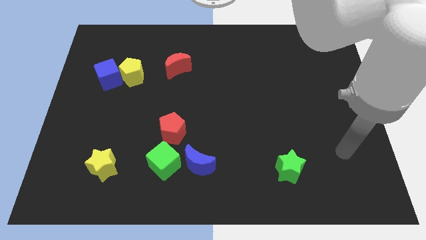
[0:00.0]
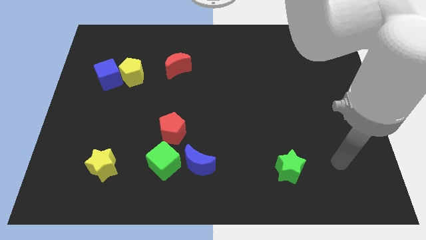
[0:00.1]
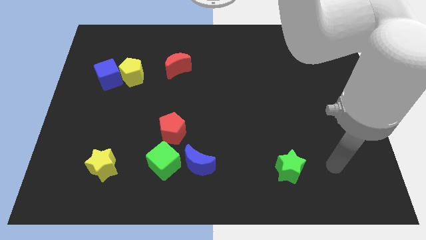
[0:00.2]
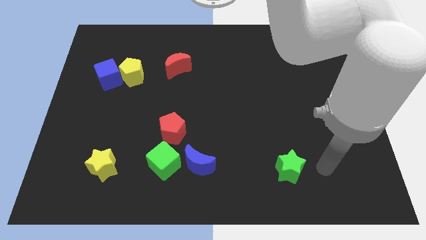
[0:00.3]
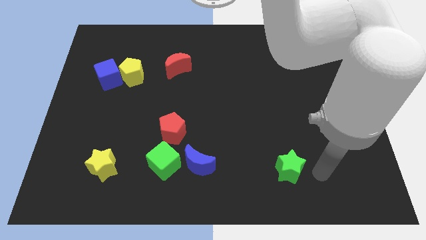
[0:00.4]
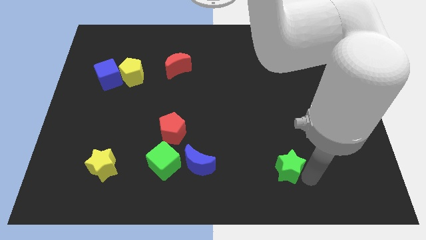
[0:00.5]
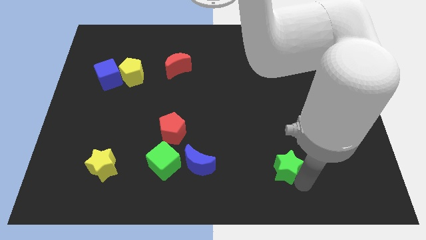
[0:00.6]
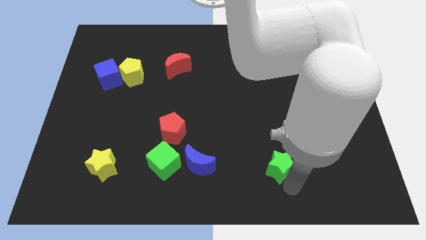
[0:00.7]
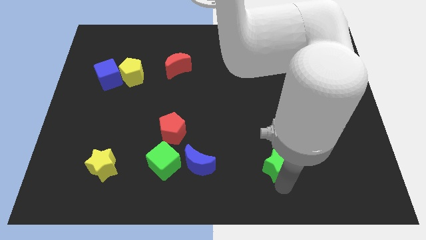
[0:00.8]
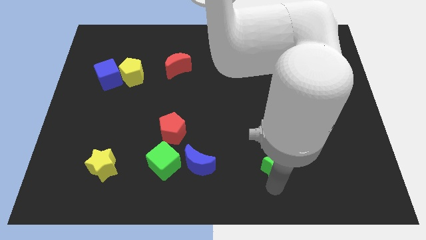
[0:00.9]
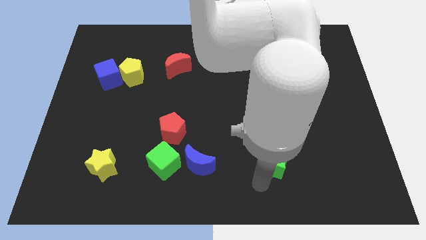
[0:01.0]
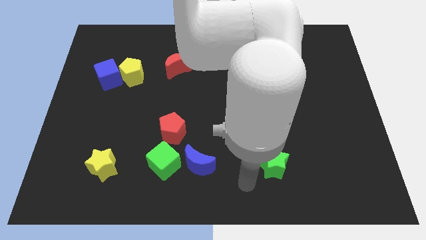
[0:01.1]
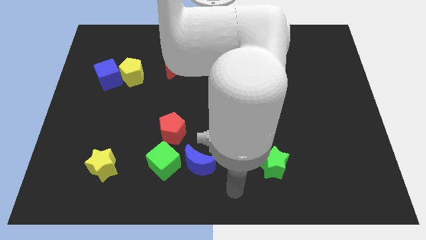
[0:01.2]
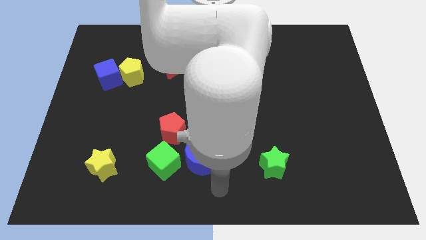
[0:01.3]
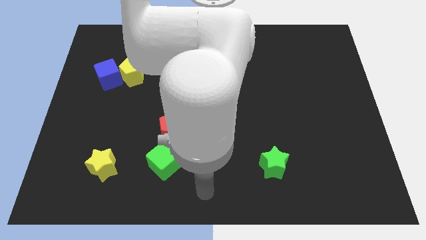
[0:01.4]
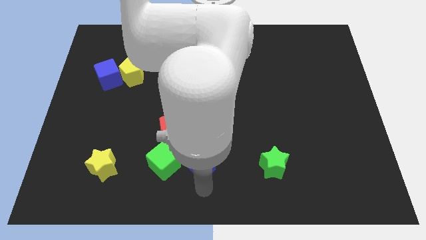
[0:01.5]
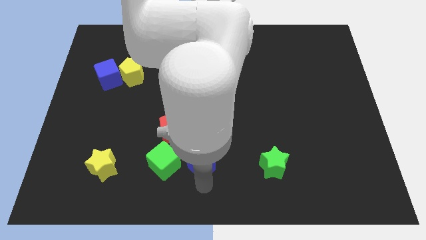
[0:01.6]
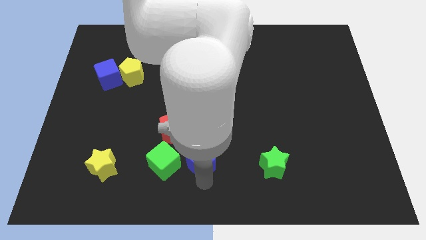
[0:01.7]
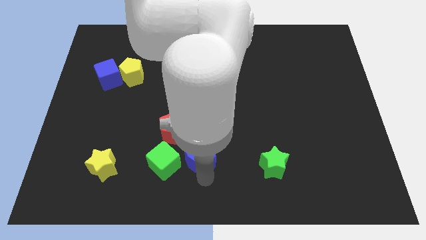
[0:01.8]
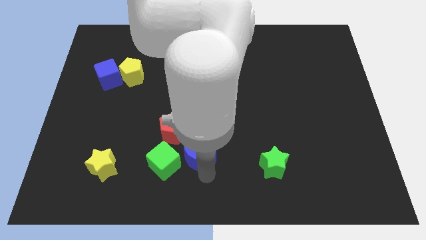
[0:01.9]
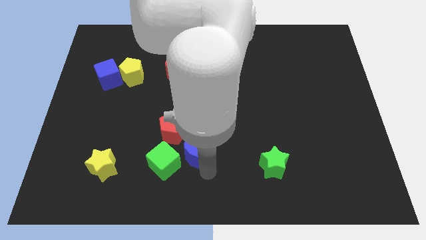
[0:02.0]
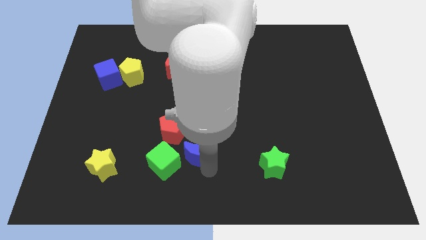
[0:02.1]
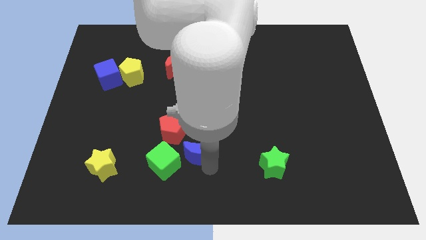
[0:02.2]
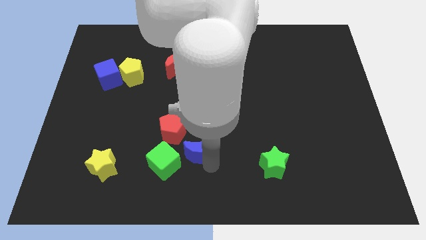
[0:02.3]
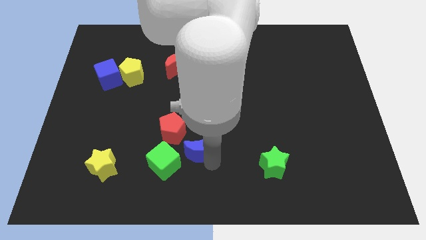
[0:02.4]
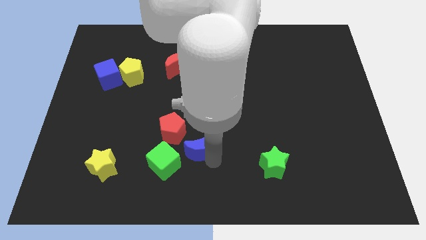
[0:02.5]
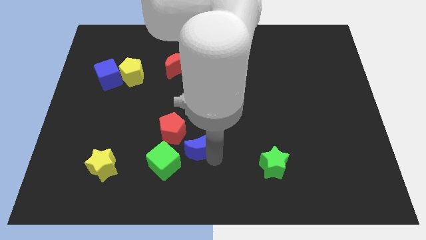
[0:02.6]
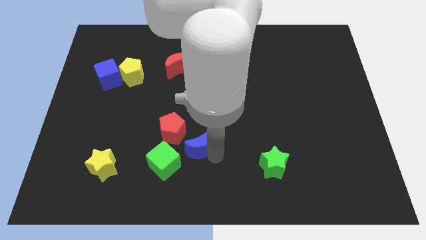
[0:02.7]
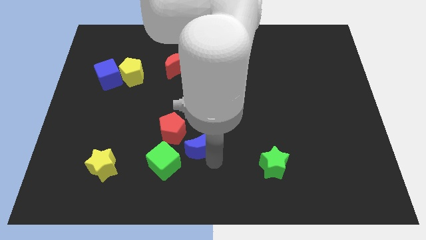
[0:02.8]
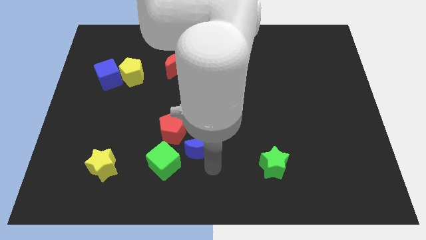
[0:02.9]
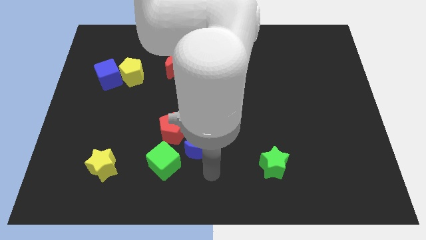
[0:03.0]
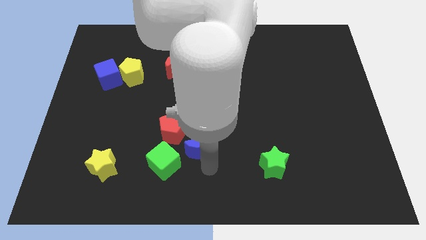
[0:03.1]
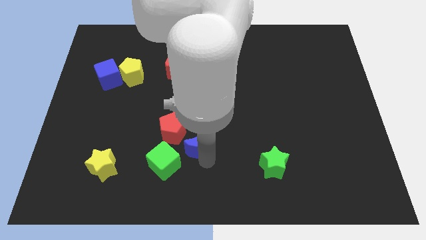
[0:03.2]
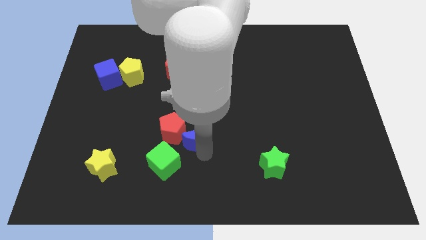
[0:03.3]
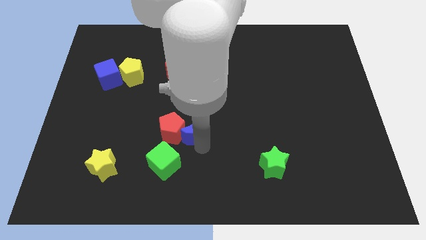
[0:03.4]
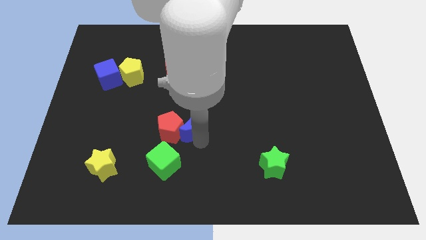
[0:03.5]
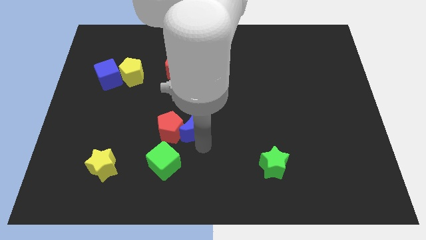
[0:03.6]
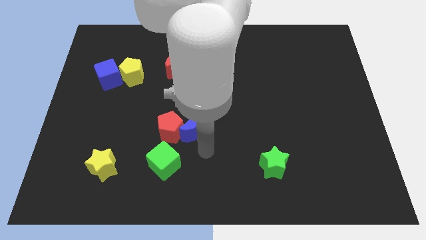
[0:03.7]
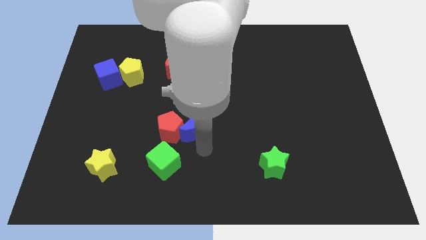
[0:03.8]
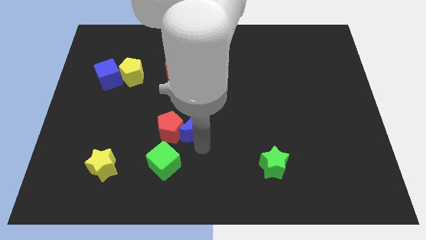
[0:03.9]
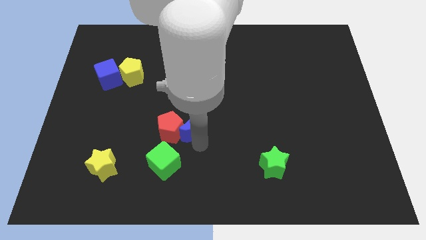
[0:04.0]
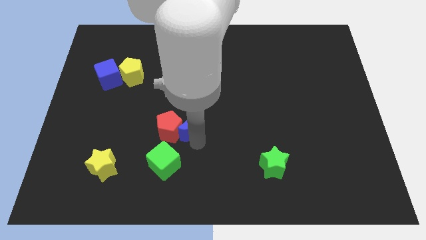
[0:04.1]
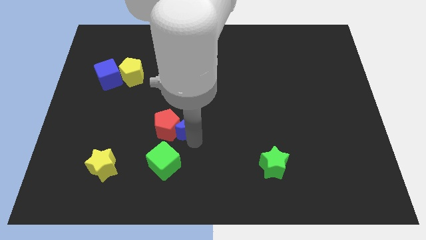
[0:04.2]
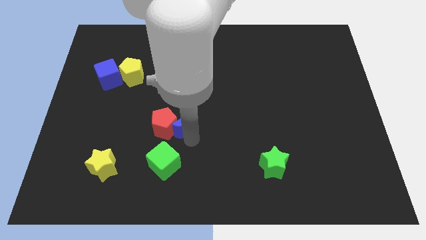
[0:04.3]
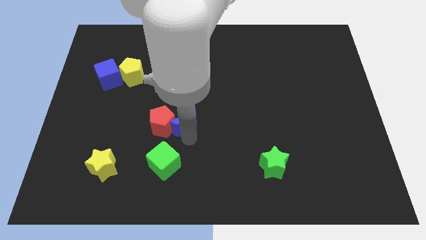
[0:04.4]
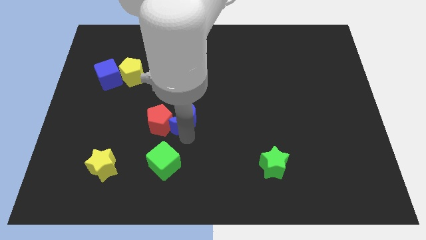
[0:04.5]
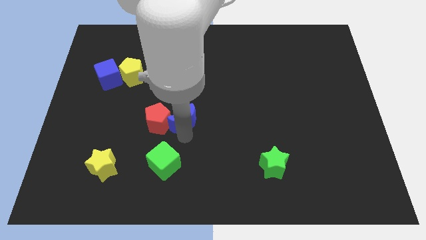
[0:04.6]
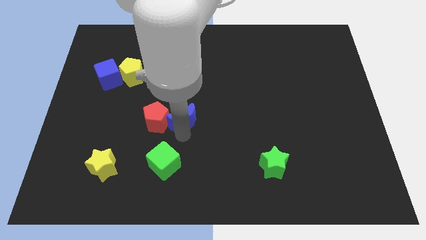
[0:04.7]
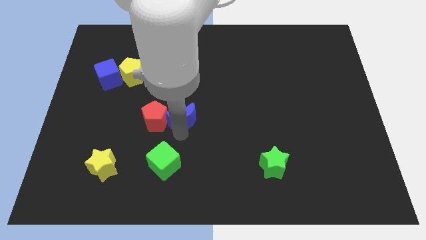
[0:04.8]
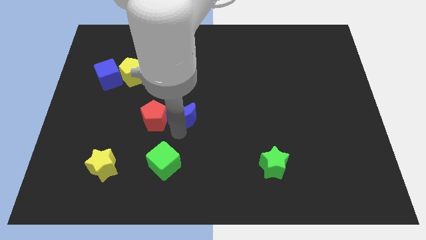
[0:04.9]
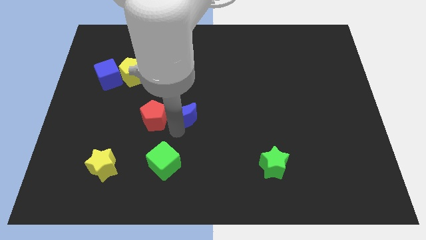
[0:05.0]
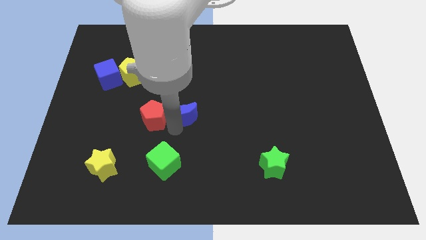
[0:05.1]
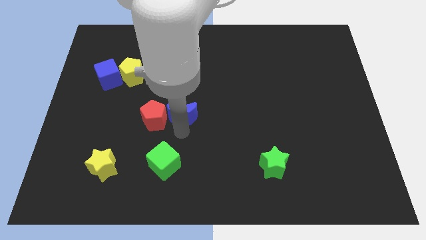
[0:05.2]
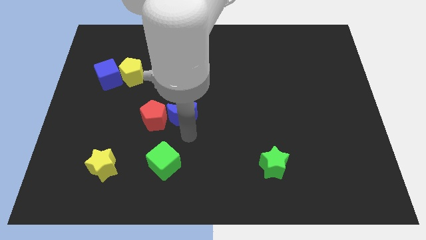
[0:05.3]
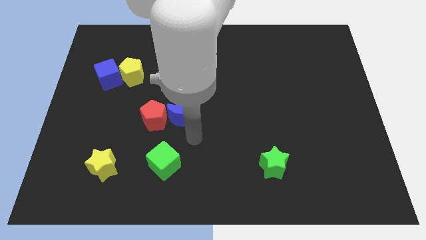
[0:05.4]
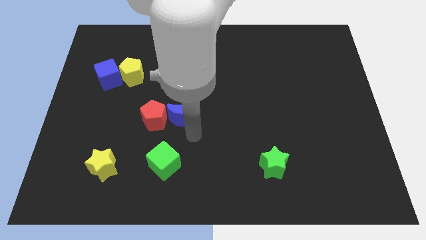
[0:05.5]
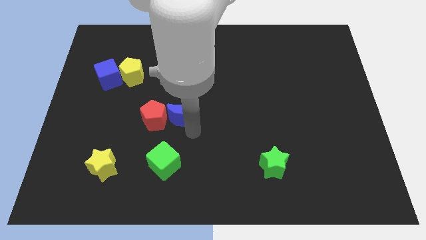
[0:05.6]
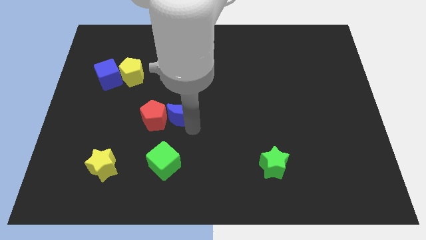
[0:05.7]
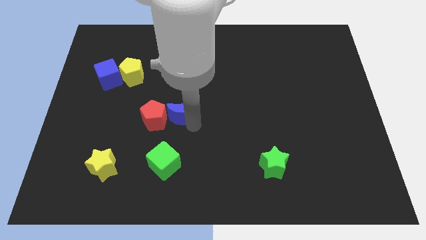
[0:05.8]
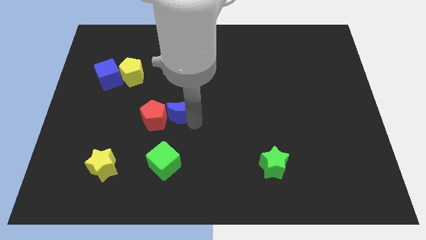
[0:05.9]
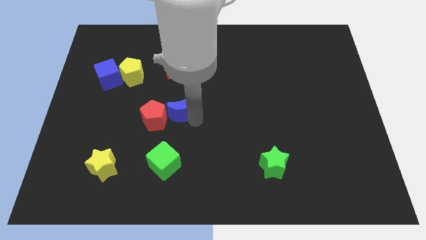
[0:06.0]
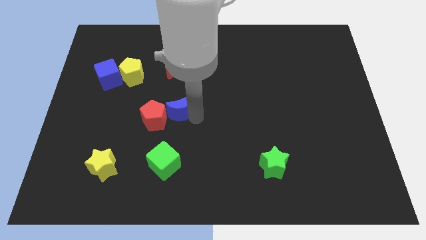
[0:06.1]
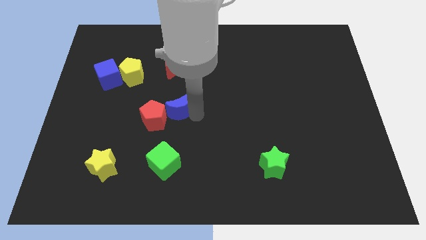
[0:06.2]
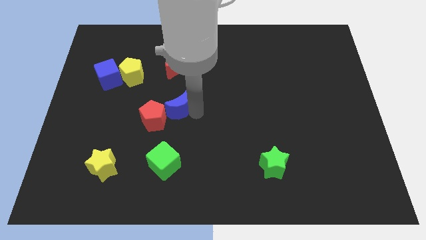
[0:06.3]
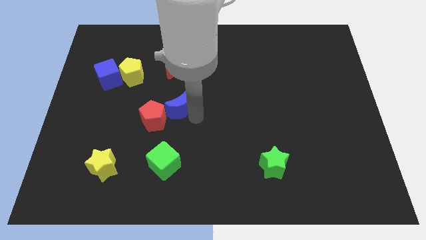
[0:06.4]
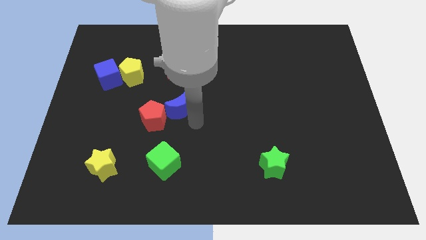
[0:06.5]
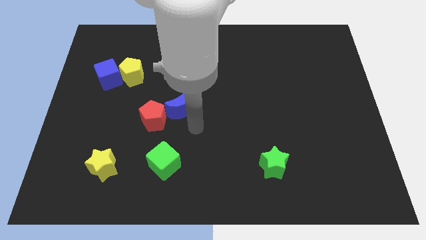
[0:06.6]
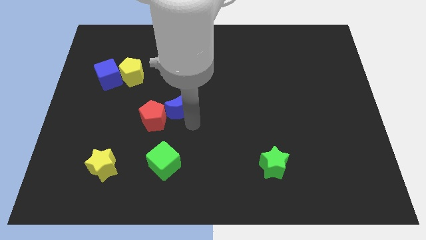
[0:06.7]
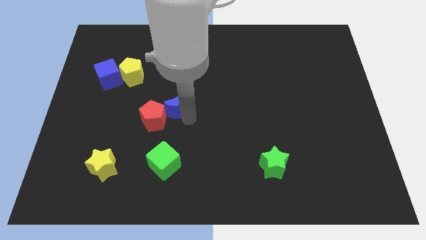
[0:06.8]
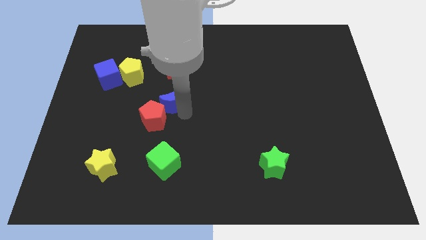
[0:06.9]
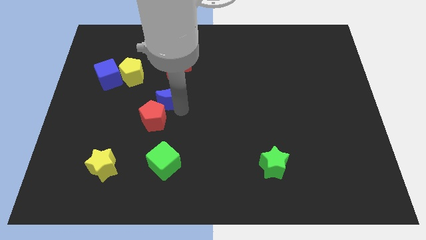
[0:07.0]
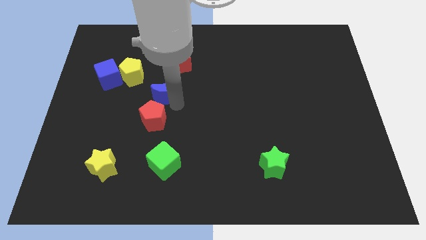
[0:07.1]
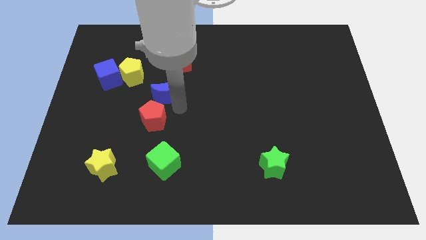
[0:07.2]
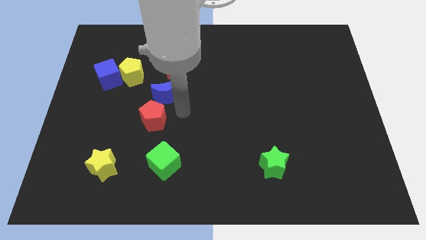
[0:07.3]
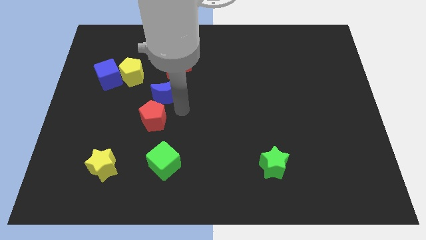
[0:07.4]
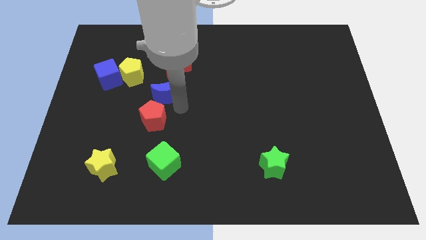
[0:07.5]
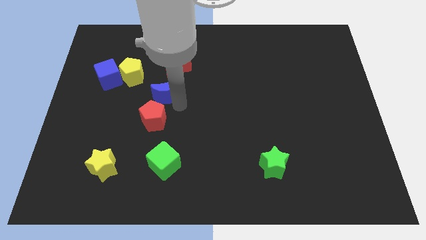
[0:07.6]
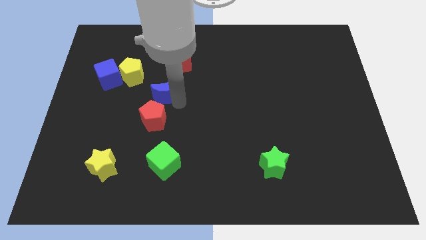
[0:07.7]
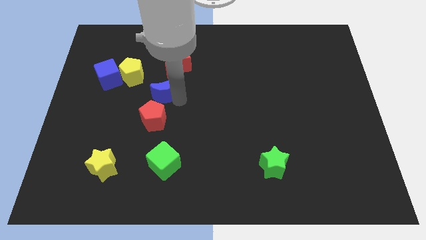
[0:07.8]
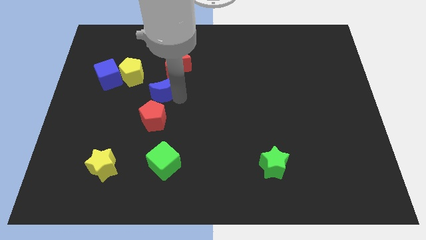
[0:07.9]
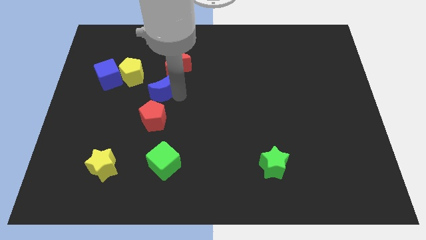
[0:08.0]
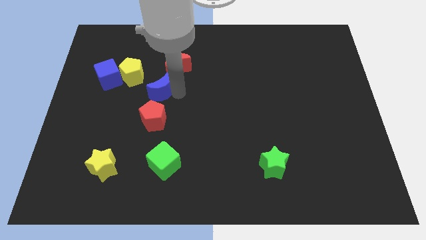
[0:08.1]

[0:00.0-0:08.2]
slide the blue moon to the right side of the blue cube
